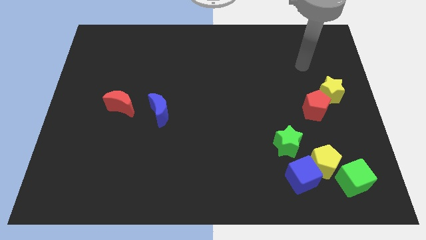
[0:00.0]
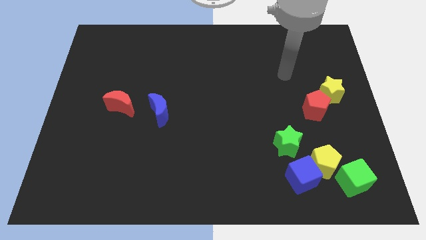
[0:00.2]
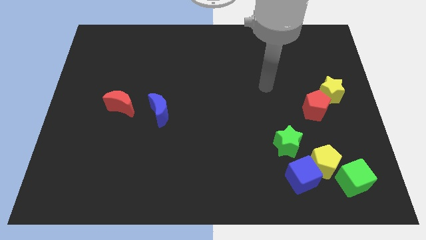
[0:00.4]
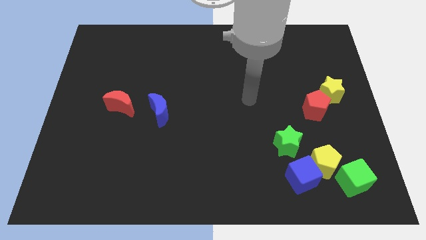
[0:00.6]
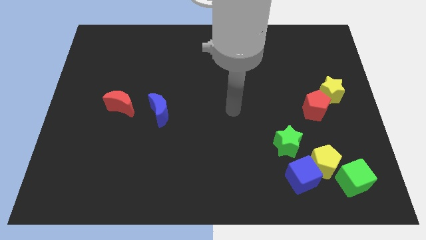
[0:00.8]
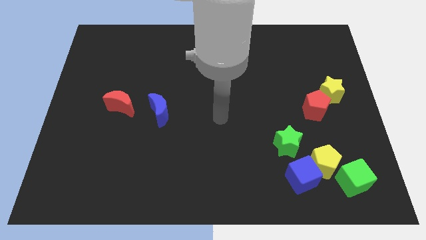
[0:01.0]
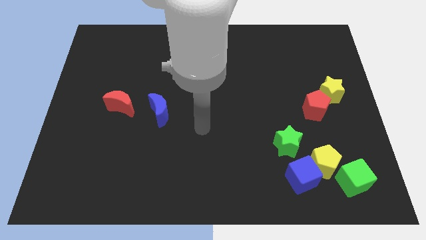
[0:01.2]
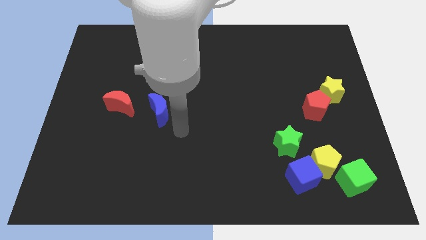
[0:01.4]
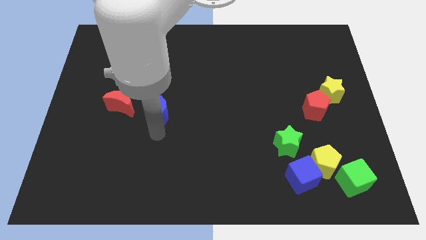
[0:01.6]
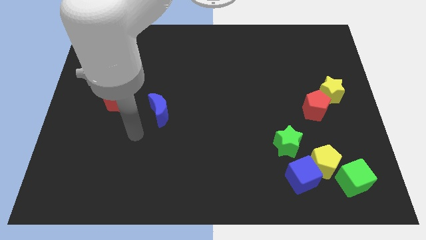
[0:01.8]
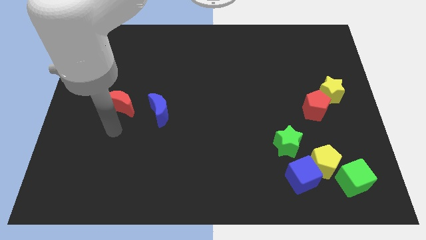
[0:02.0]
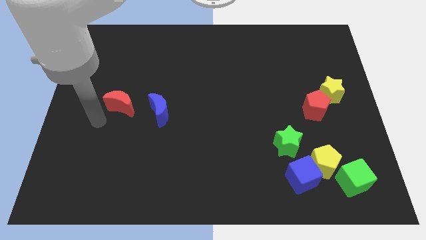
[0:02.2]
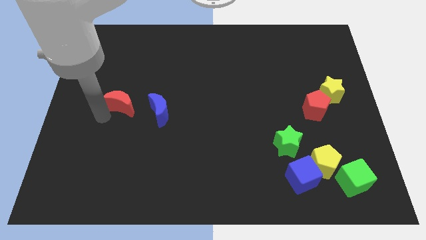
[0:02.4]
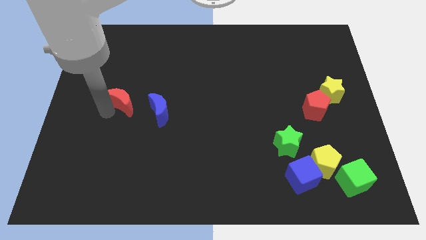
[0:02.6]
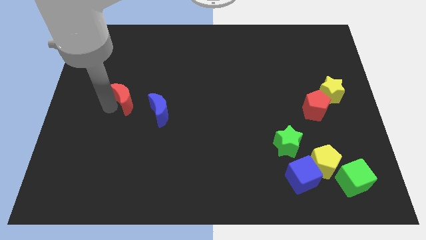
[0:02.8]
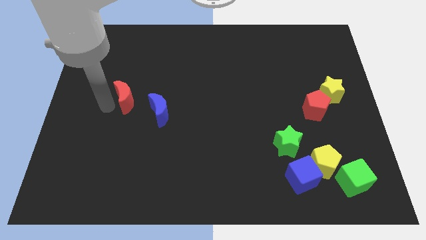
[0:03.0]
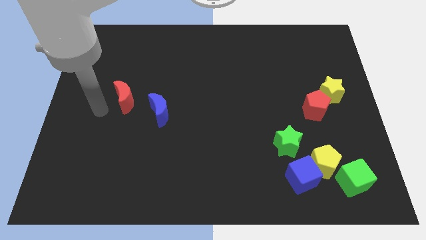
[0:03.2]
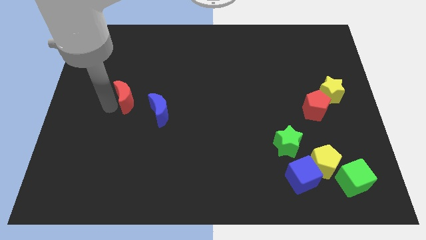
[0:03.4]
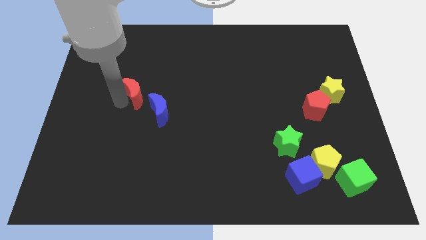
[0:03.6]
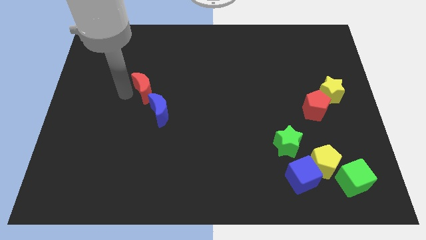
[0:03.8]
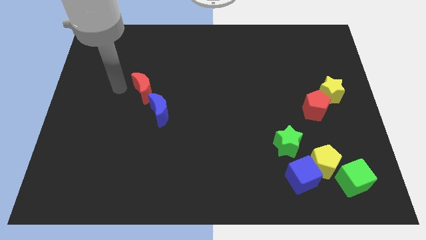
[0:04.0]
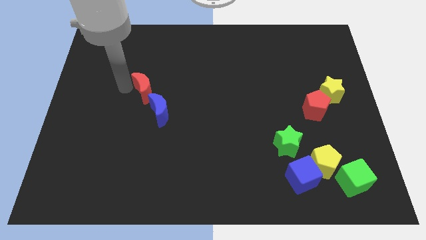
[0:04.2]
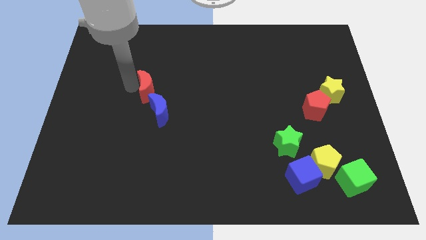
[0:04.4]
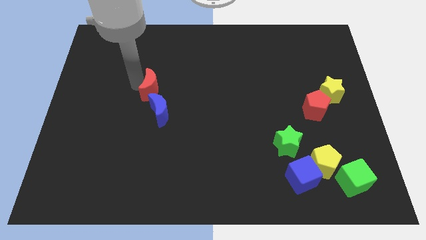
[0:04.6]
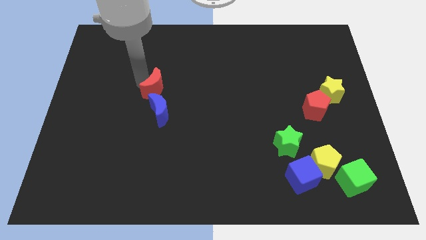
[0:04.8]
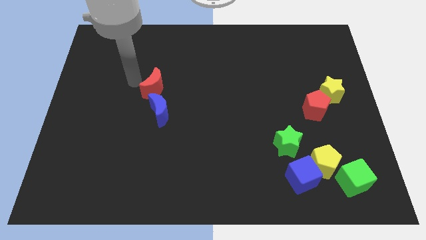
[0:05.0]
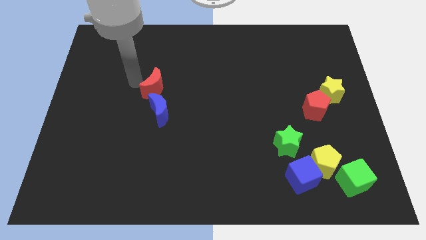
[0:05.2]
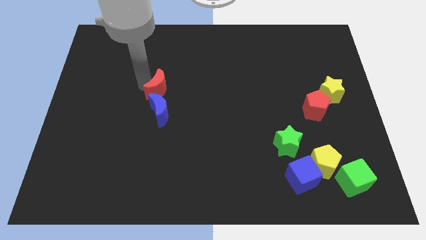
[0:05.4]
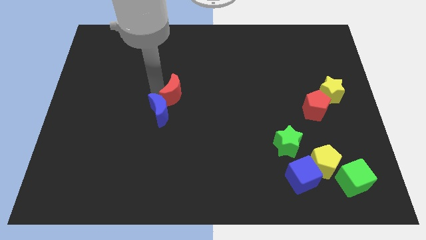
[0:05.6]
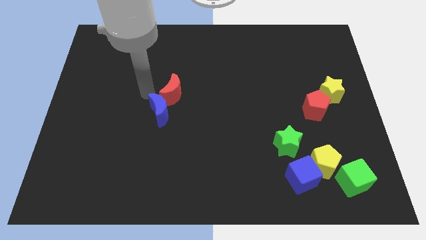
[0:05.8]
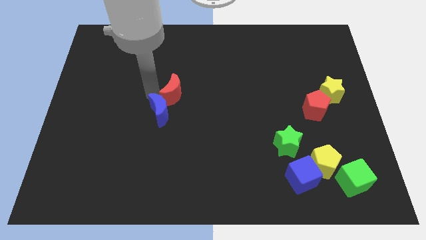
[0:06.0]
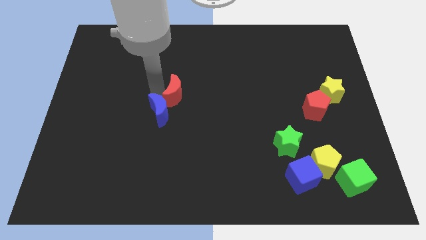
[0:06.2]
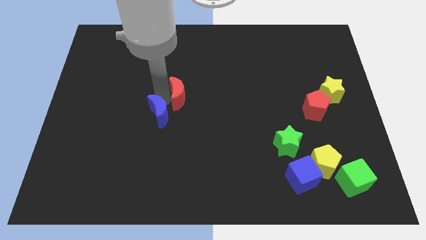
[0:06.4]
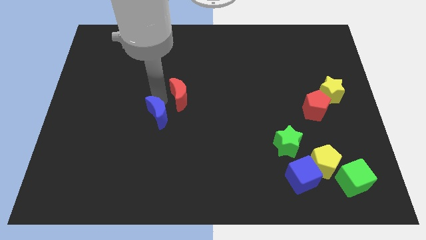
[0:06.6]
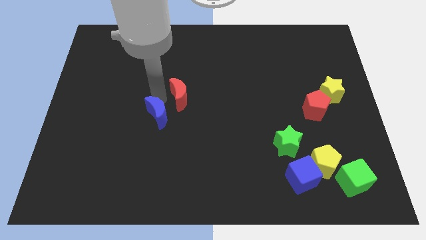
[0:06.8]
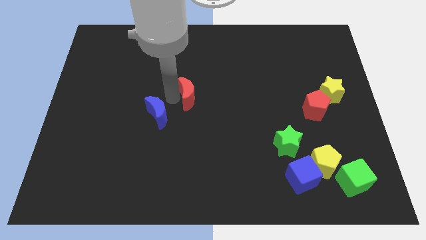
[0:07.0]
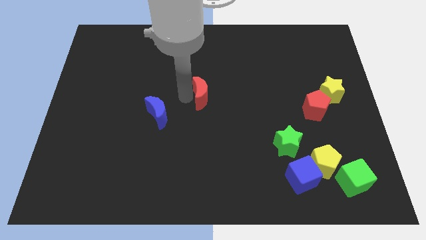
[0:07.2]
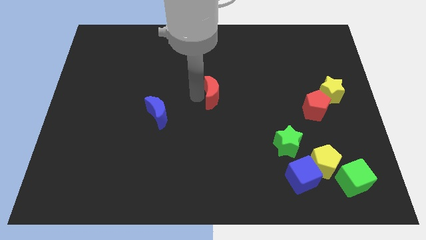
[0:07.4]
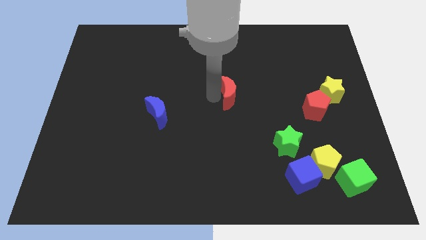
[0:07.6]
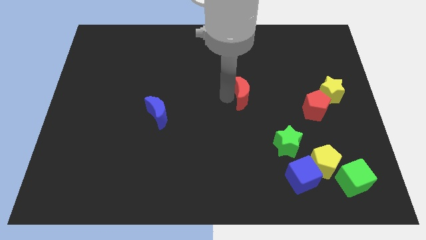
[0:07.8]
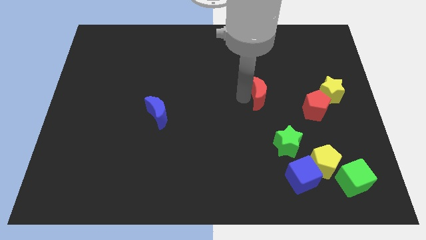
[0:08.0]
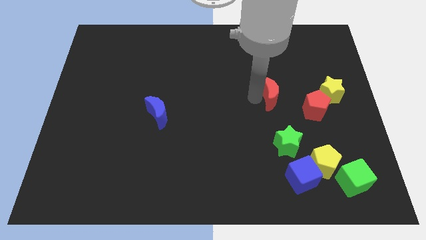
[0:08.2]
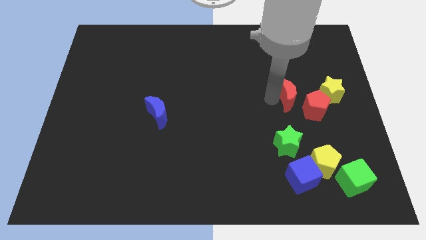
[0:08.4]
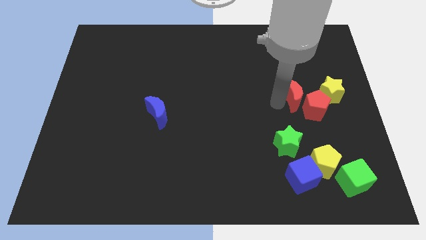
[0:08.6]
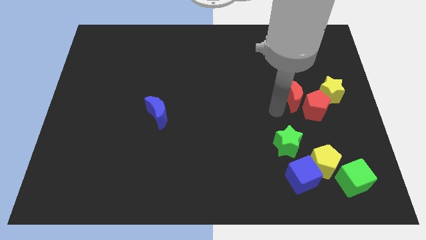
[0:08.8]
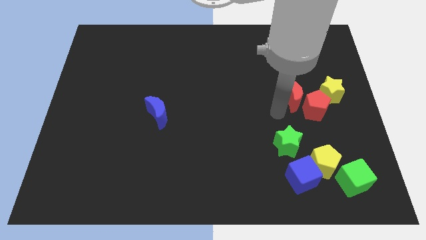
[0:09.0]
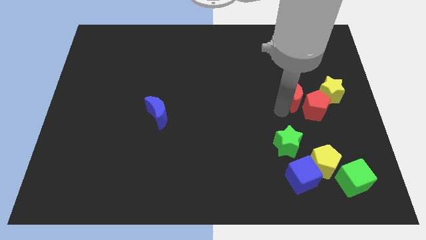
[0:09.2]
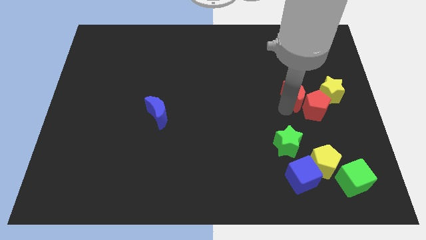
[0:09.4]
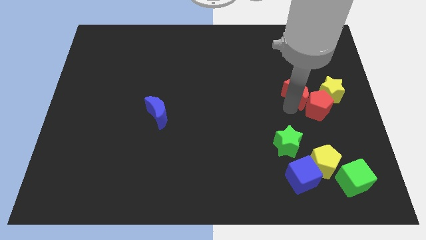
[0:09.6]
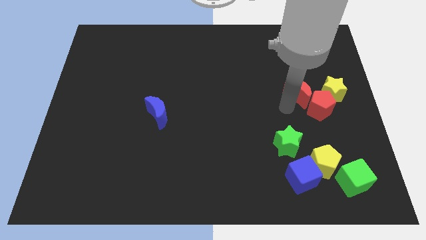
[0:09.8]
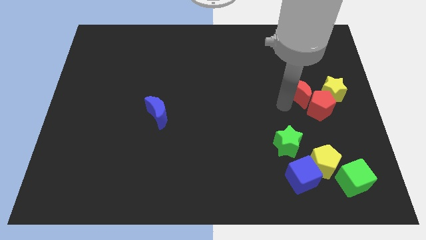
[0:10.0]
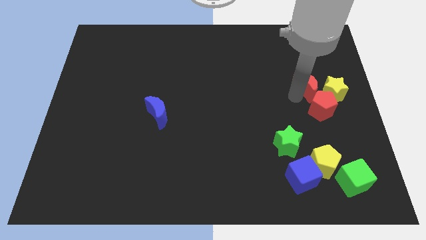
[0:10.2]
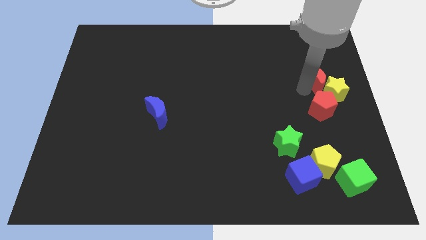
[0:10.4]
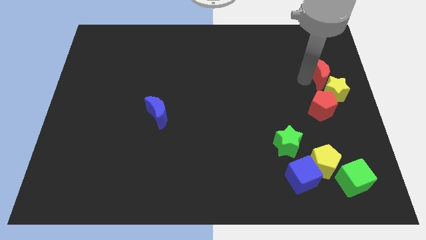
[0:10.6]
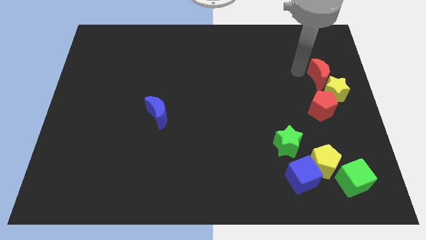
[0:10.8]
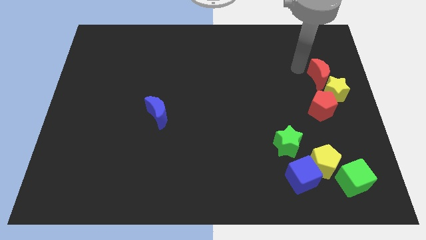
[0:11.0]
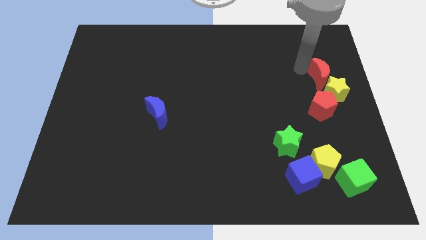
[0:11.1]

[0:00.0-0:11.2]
put the red moon to the right side

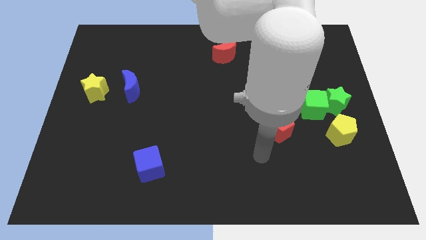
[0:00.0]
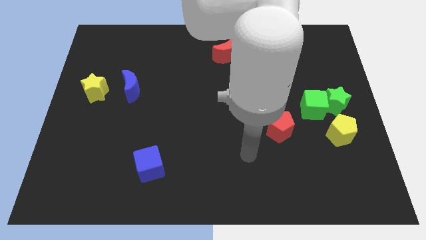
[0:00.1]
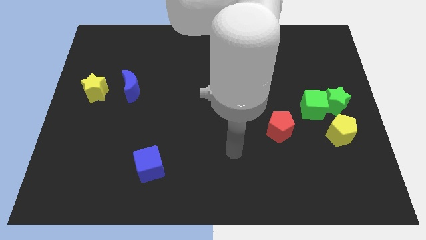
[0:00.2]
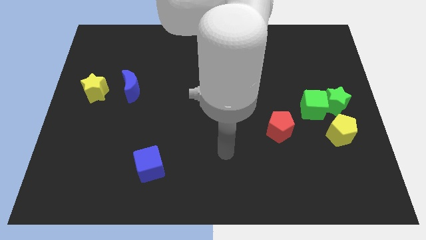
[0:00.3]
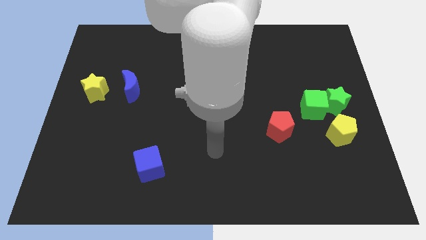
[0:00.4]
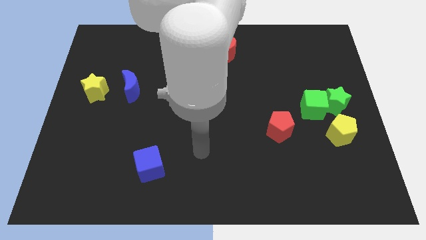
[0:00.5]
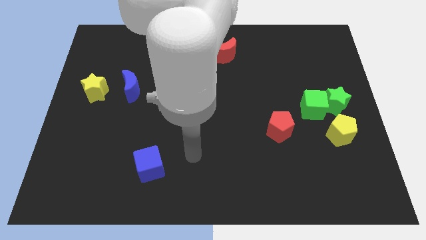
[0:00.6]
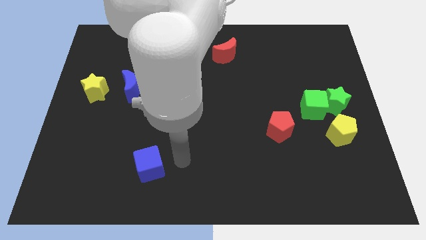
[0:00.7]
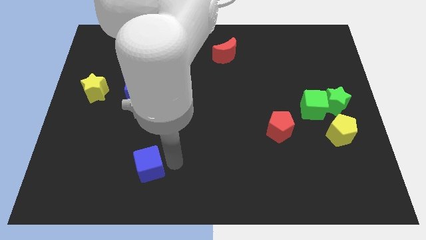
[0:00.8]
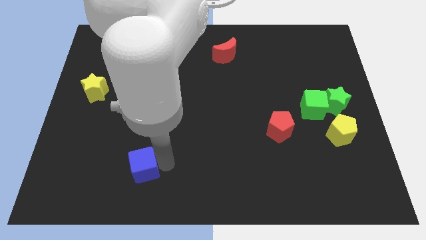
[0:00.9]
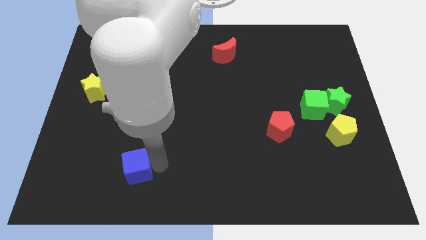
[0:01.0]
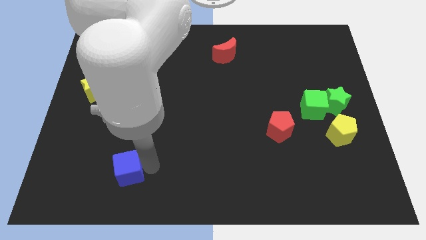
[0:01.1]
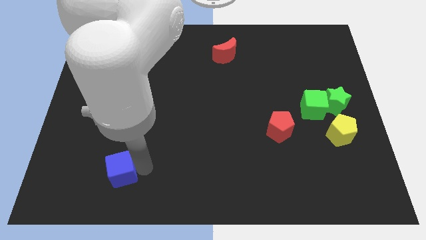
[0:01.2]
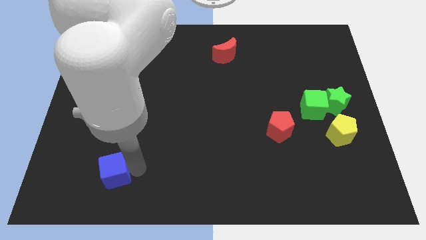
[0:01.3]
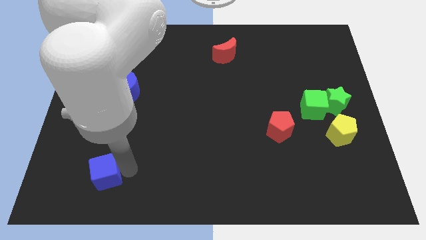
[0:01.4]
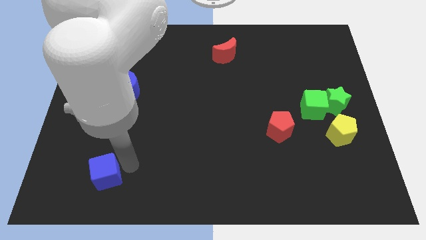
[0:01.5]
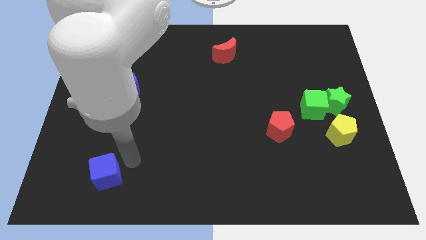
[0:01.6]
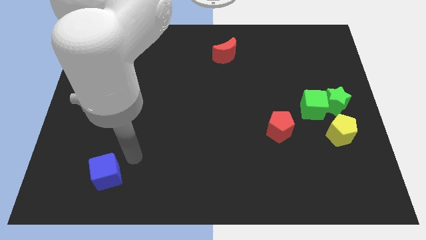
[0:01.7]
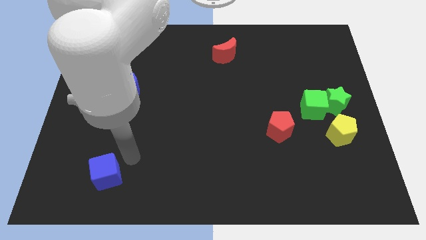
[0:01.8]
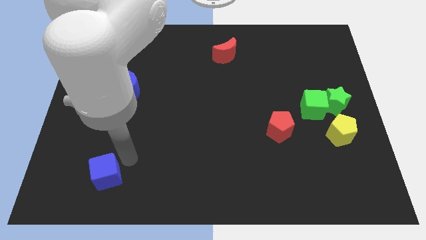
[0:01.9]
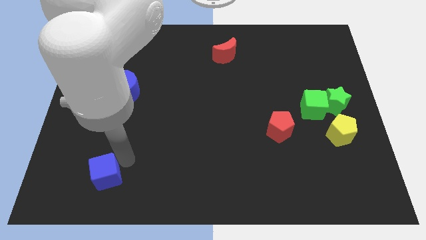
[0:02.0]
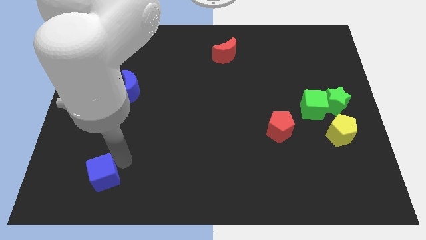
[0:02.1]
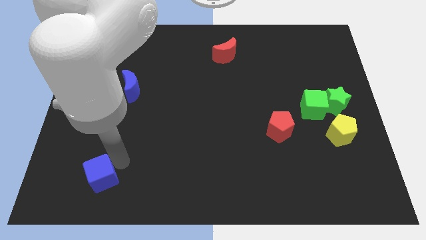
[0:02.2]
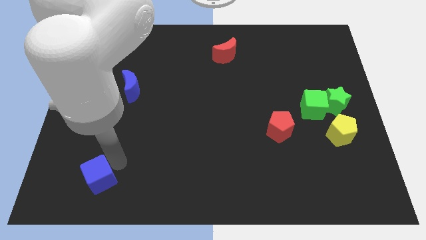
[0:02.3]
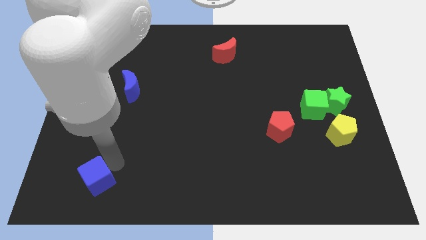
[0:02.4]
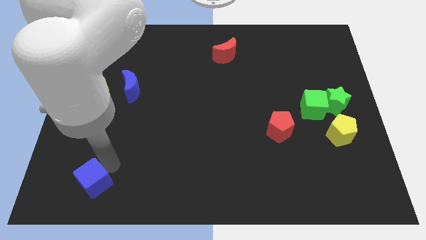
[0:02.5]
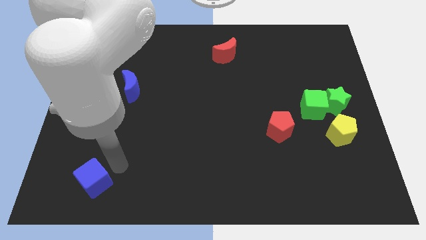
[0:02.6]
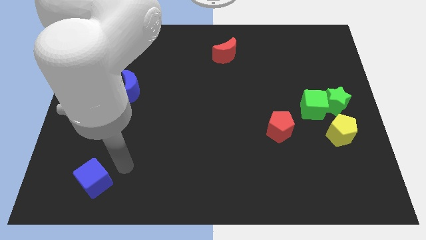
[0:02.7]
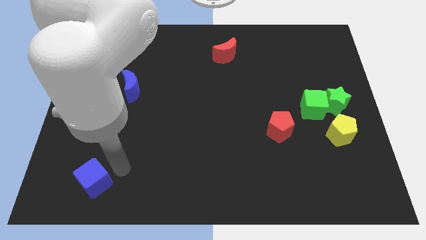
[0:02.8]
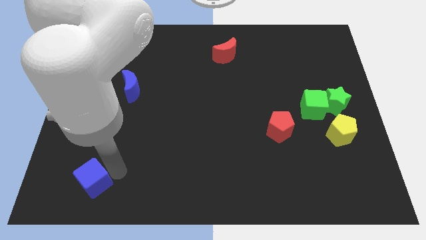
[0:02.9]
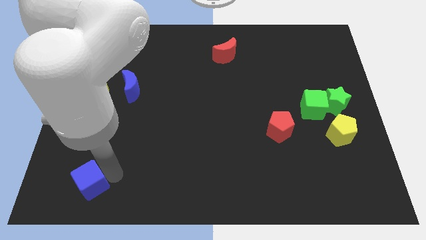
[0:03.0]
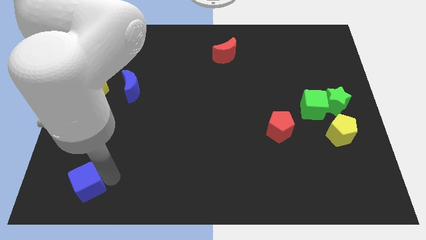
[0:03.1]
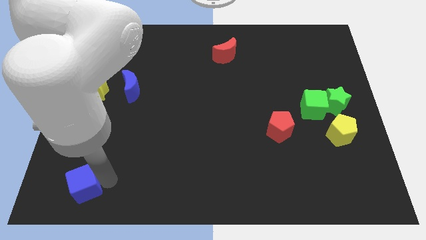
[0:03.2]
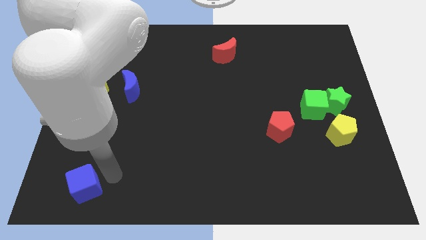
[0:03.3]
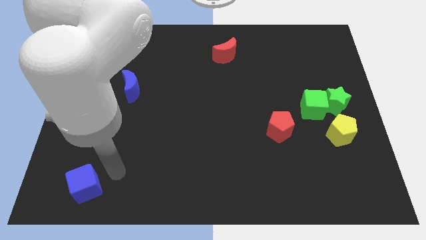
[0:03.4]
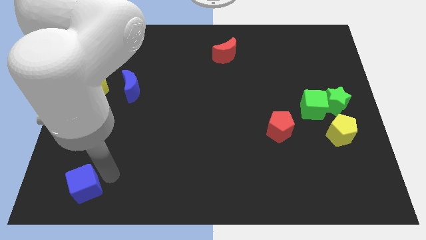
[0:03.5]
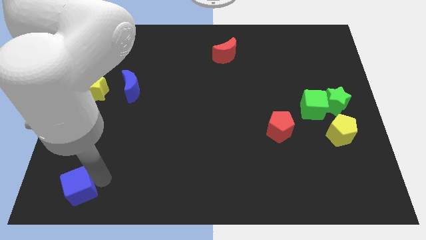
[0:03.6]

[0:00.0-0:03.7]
push the blue cube to the bottom left corner
